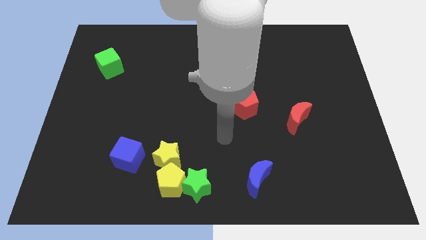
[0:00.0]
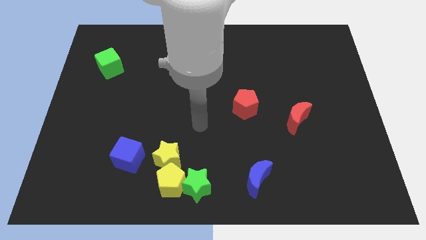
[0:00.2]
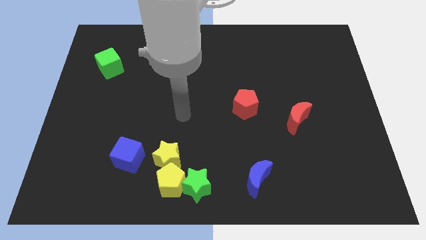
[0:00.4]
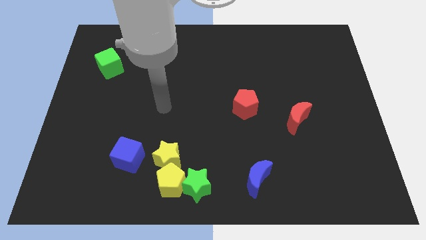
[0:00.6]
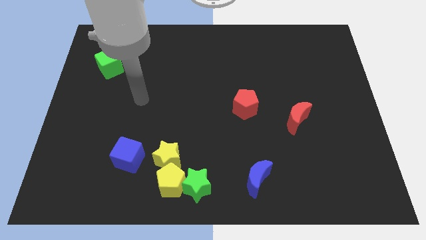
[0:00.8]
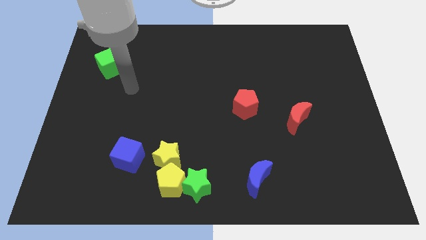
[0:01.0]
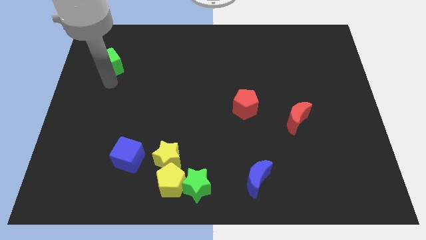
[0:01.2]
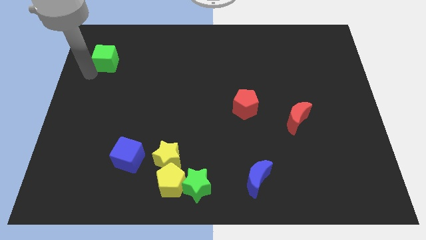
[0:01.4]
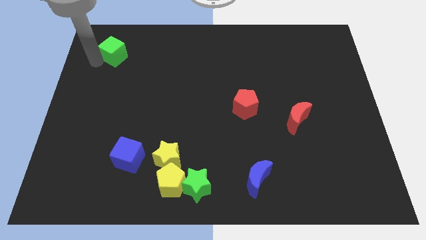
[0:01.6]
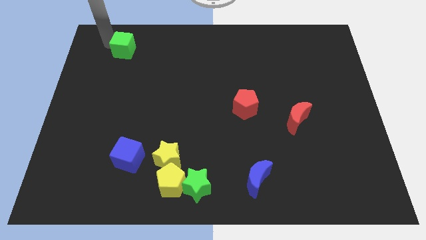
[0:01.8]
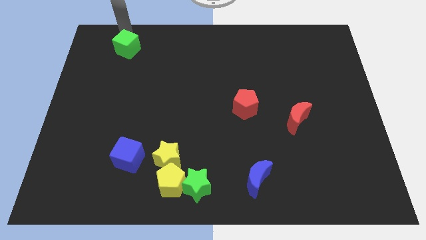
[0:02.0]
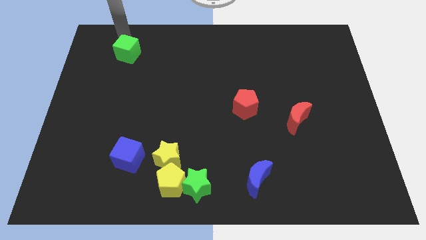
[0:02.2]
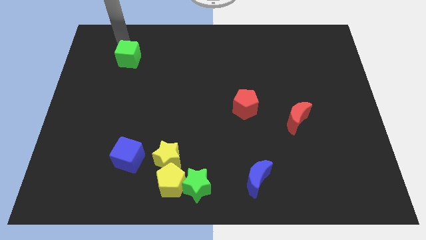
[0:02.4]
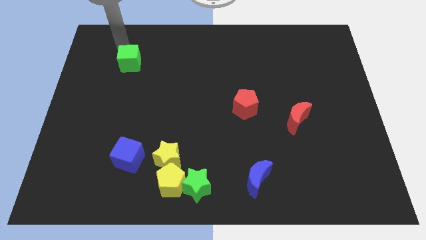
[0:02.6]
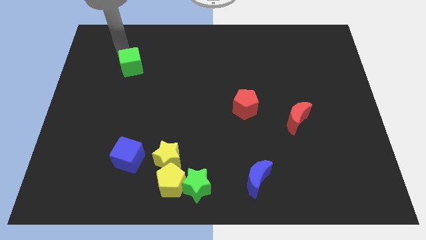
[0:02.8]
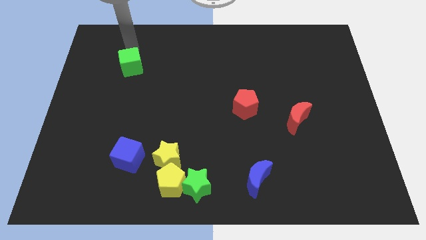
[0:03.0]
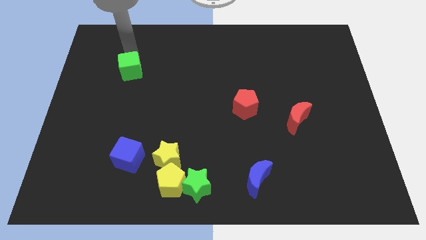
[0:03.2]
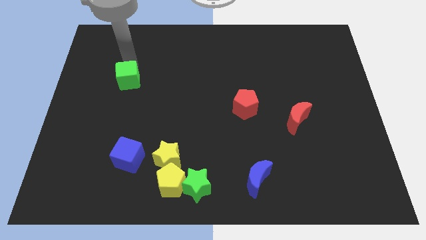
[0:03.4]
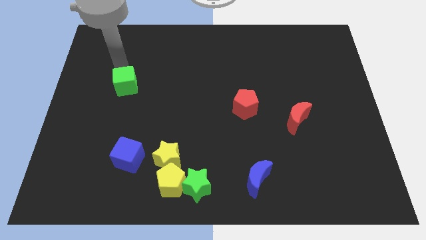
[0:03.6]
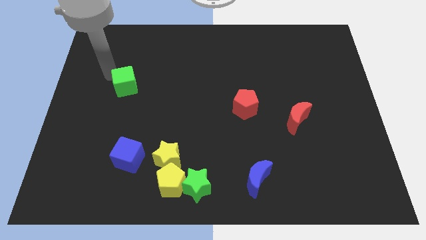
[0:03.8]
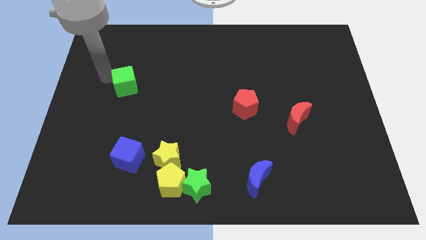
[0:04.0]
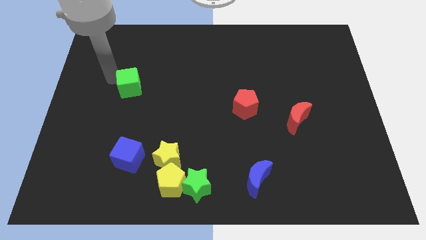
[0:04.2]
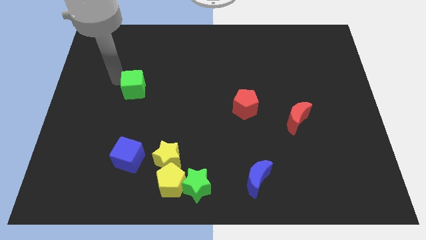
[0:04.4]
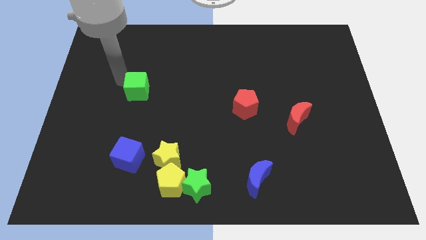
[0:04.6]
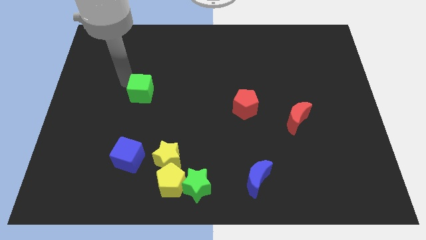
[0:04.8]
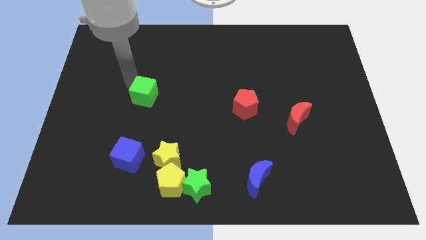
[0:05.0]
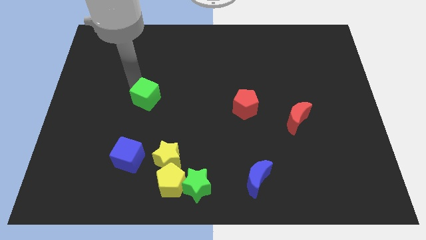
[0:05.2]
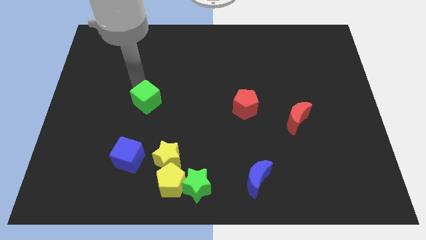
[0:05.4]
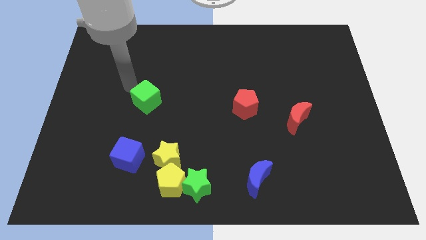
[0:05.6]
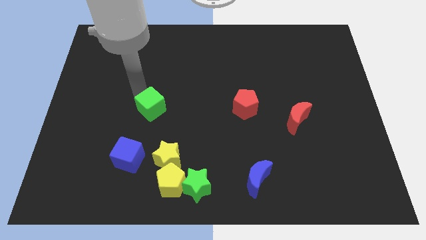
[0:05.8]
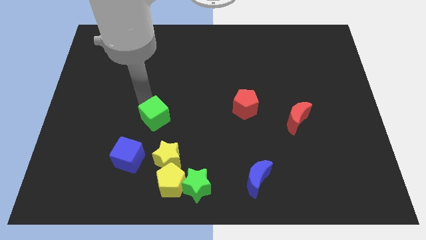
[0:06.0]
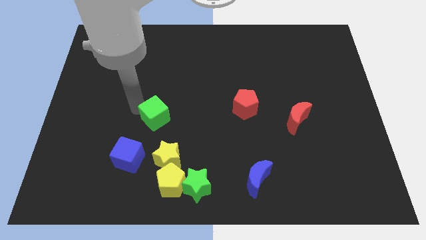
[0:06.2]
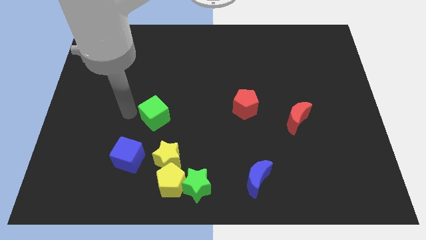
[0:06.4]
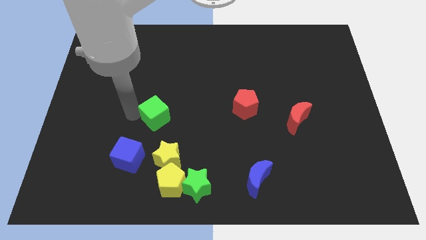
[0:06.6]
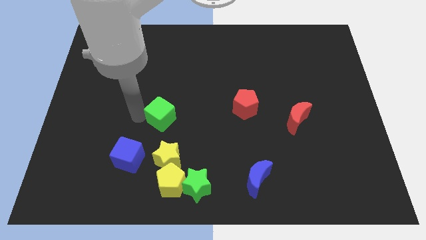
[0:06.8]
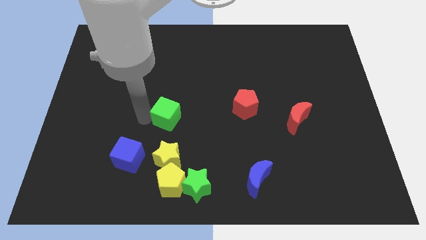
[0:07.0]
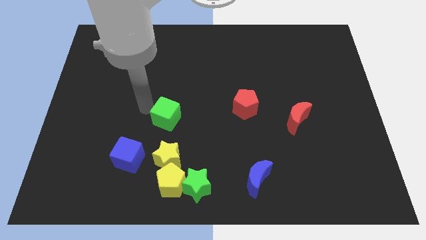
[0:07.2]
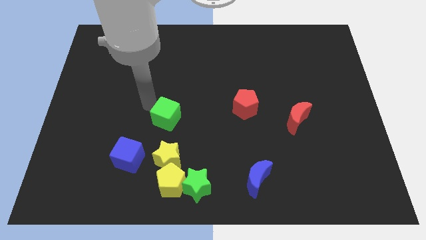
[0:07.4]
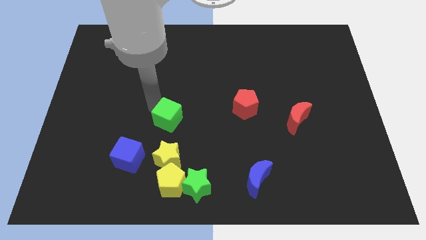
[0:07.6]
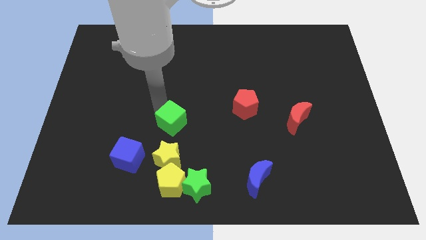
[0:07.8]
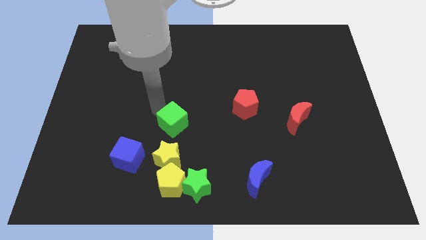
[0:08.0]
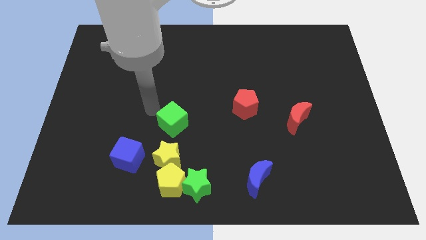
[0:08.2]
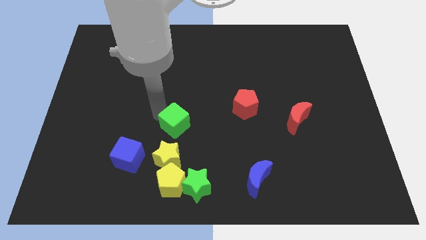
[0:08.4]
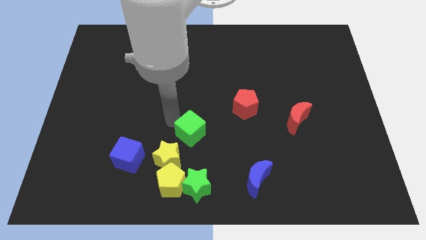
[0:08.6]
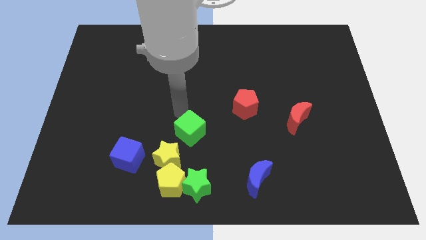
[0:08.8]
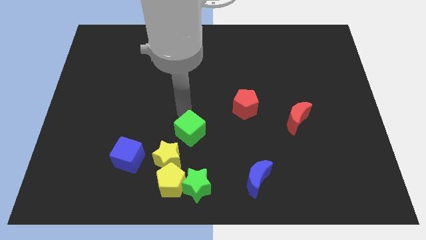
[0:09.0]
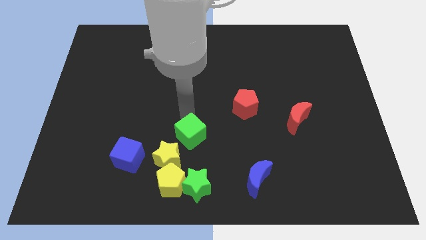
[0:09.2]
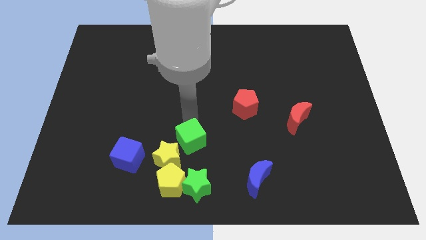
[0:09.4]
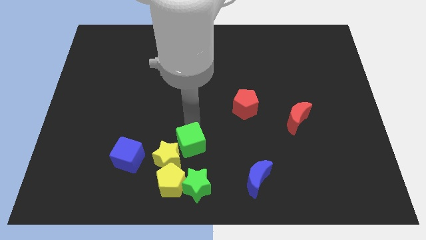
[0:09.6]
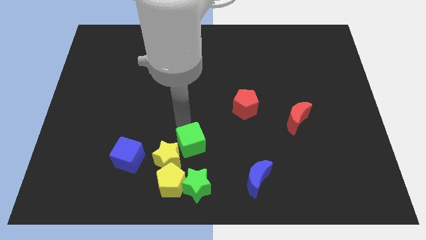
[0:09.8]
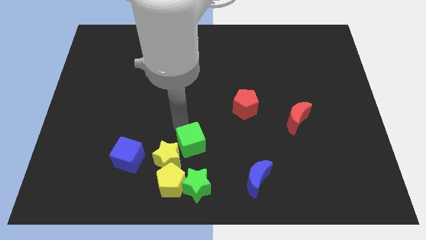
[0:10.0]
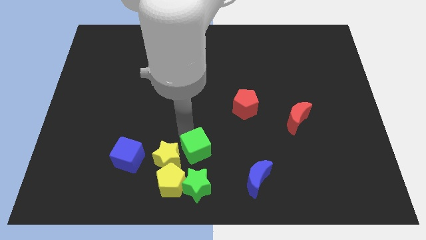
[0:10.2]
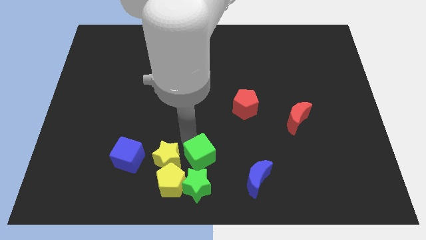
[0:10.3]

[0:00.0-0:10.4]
move the green cube diagonally up and to the right of the green star

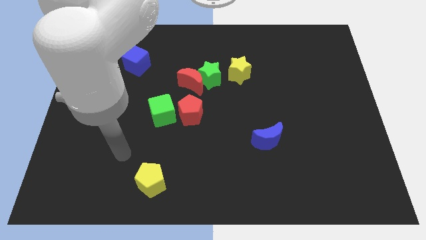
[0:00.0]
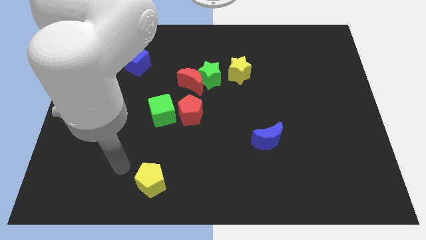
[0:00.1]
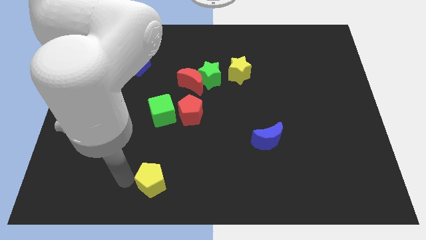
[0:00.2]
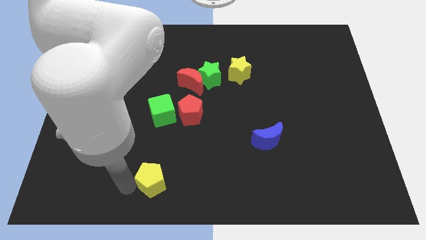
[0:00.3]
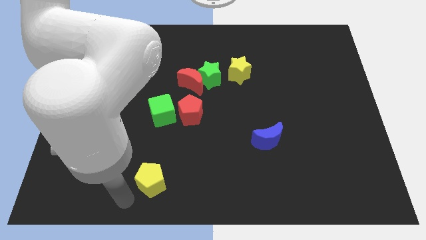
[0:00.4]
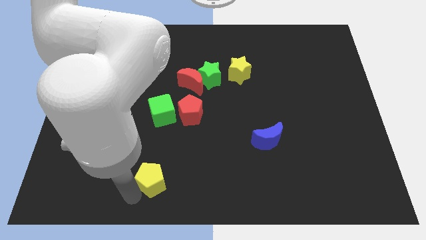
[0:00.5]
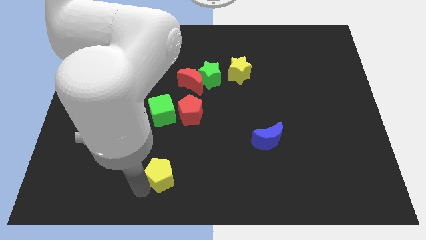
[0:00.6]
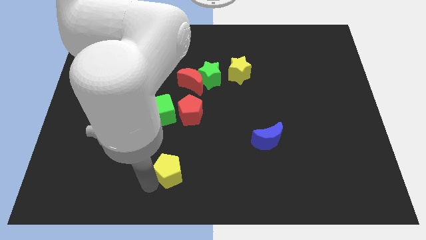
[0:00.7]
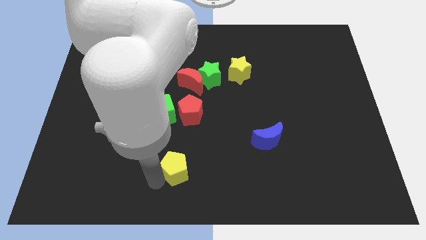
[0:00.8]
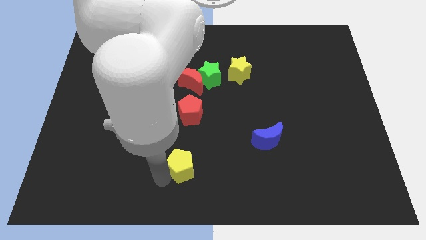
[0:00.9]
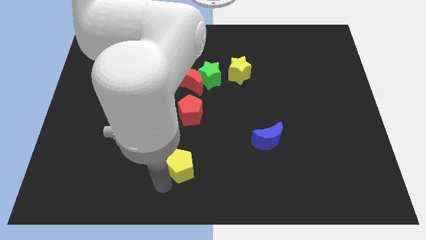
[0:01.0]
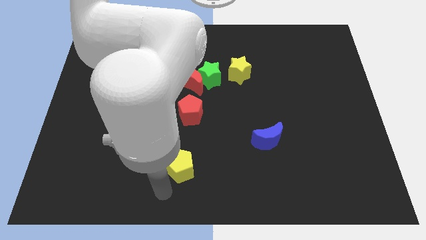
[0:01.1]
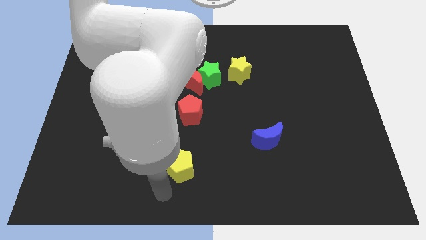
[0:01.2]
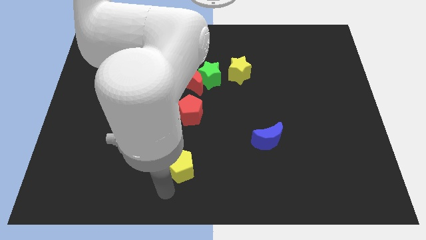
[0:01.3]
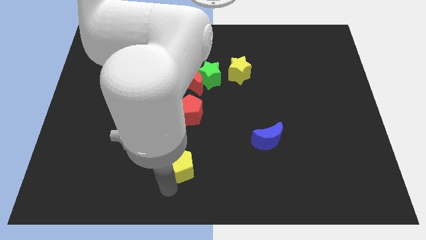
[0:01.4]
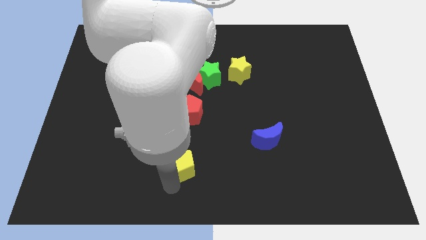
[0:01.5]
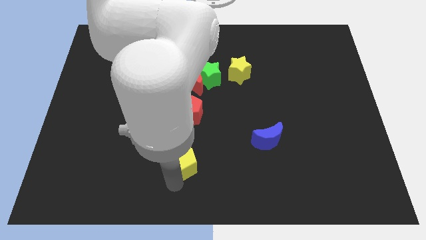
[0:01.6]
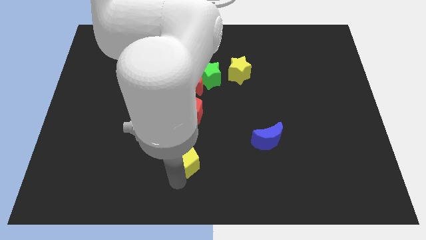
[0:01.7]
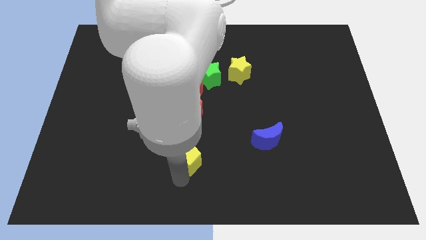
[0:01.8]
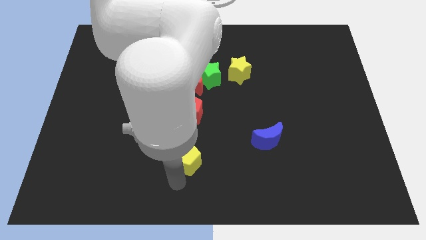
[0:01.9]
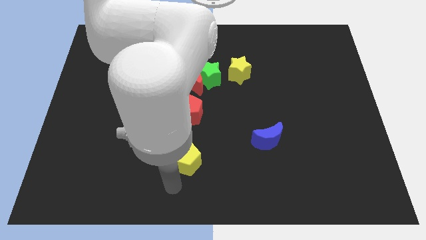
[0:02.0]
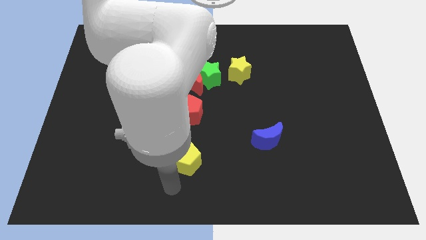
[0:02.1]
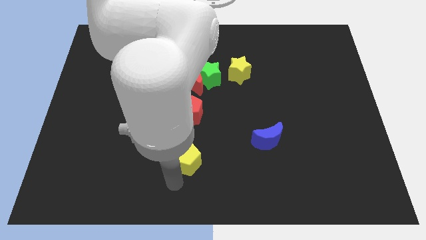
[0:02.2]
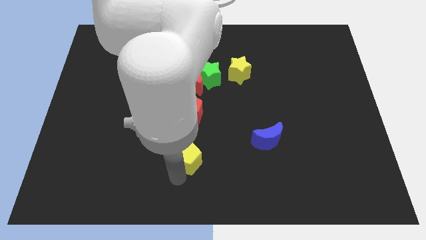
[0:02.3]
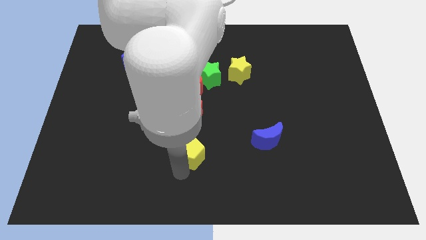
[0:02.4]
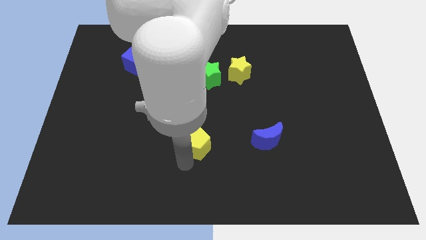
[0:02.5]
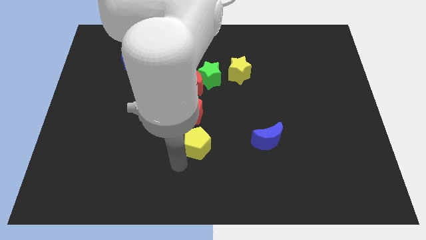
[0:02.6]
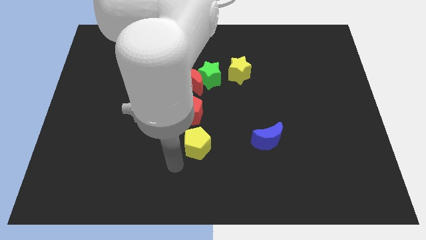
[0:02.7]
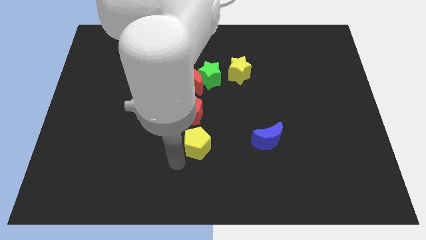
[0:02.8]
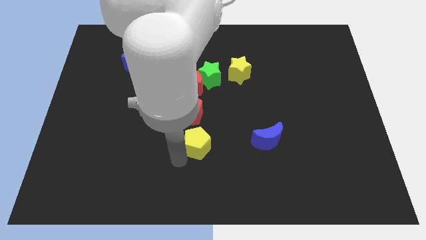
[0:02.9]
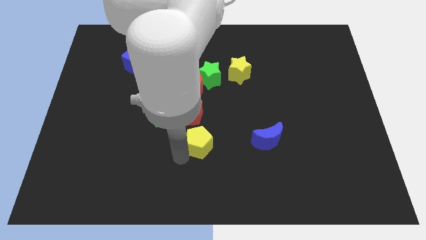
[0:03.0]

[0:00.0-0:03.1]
slide the yellow pentagon to the bottom right side of the red pentagon
